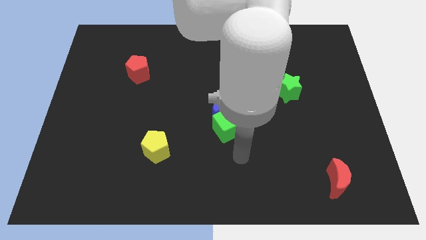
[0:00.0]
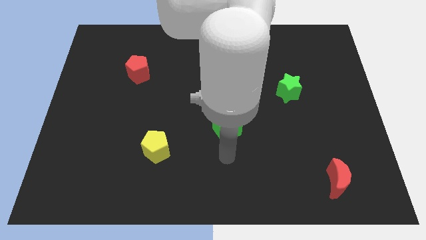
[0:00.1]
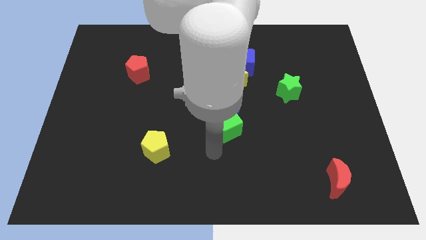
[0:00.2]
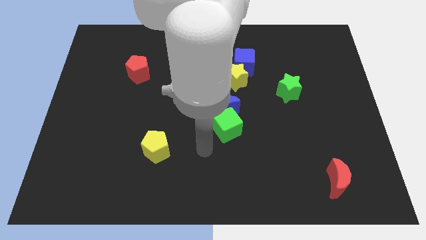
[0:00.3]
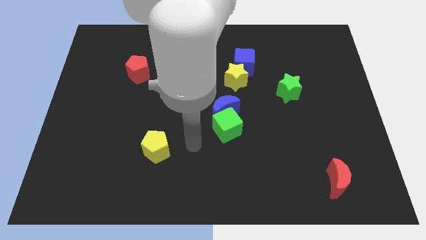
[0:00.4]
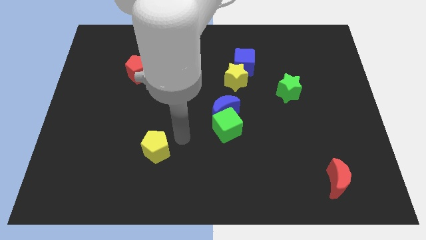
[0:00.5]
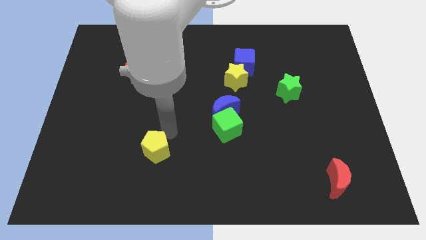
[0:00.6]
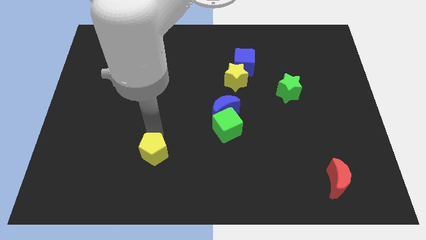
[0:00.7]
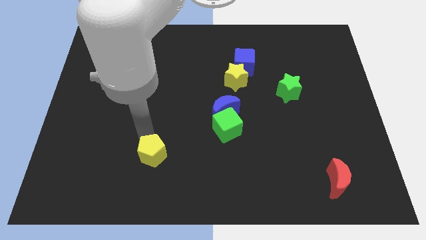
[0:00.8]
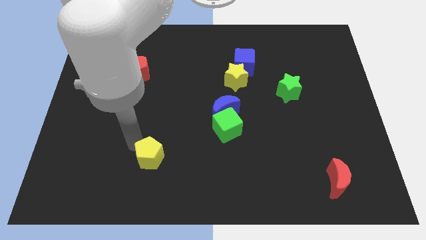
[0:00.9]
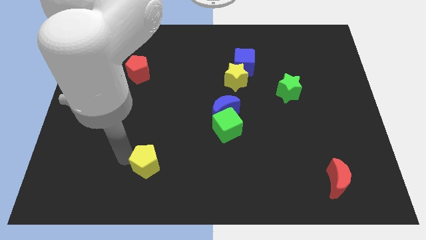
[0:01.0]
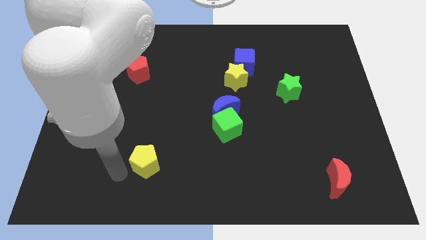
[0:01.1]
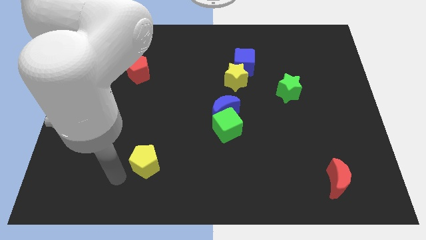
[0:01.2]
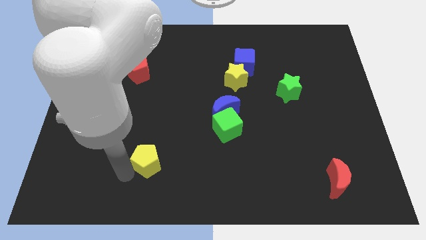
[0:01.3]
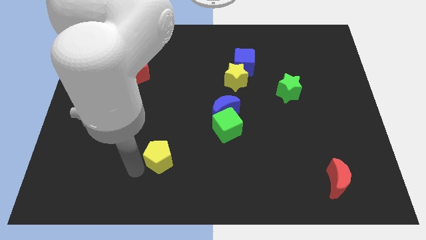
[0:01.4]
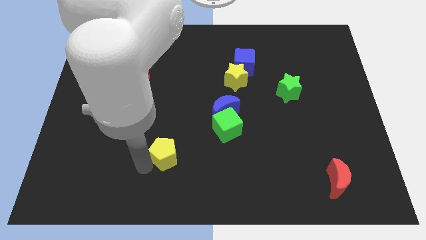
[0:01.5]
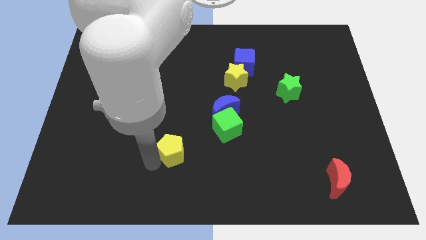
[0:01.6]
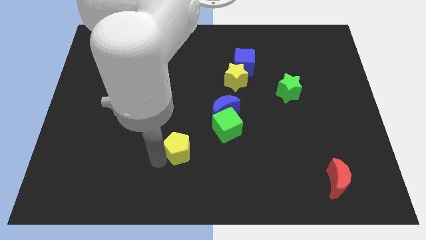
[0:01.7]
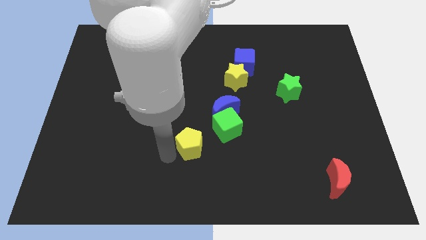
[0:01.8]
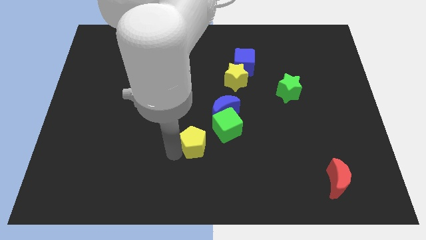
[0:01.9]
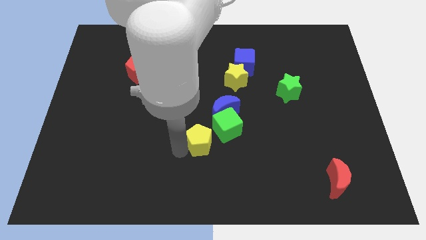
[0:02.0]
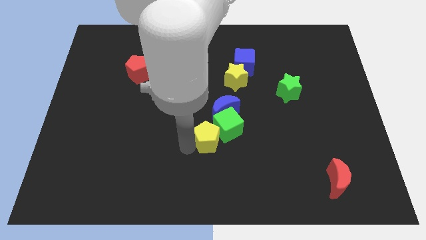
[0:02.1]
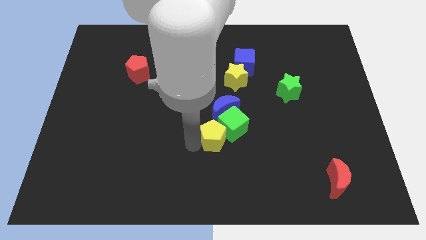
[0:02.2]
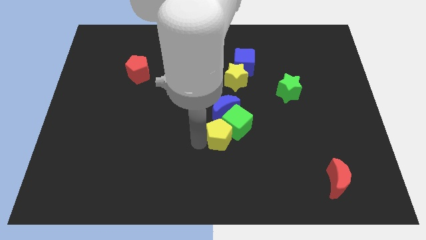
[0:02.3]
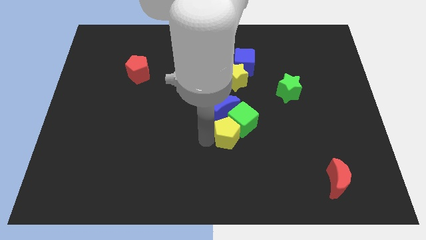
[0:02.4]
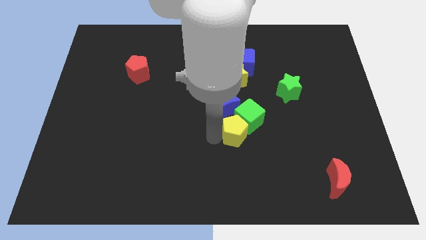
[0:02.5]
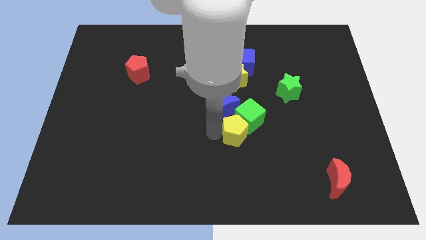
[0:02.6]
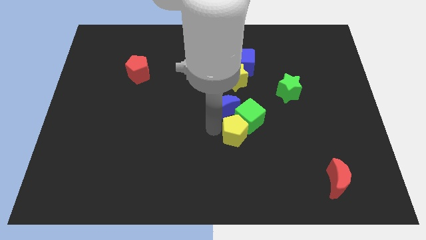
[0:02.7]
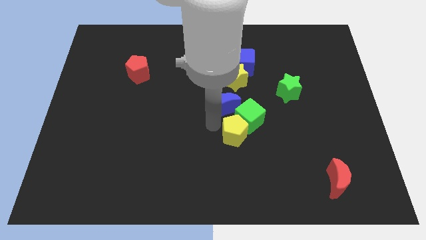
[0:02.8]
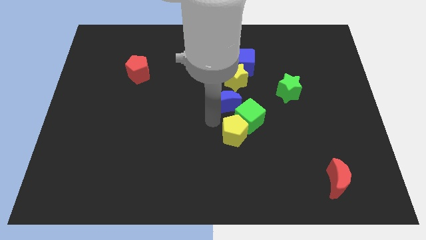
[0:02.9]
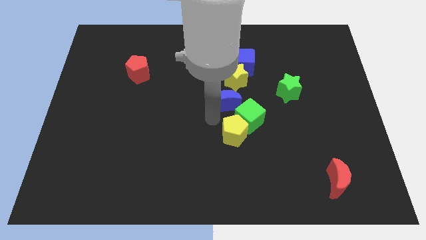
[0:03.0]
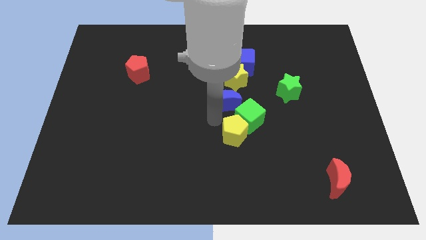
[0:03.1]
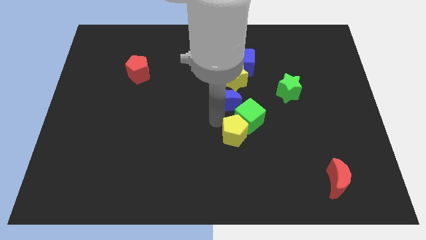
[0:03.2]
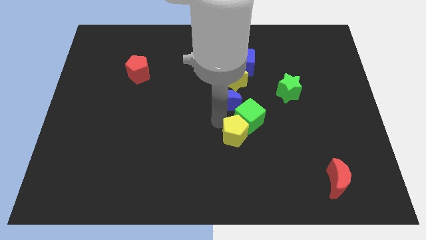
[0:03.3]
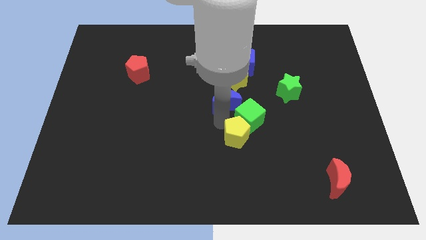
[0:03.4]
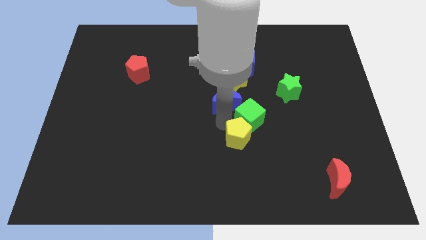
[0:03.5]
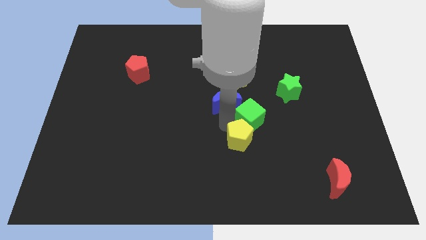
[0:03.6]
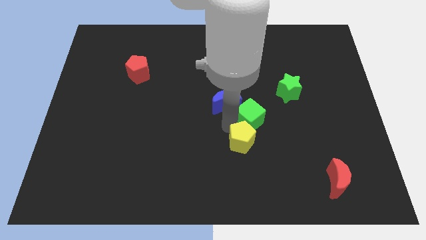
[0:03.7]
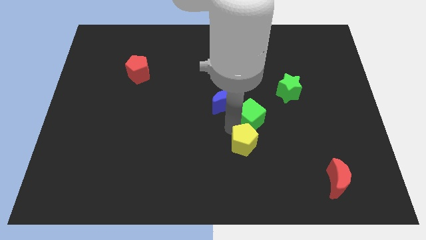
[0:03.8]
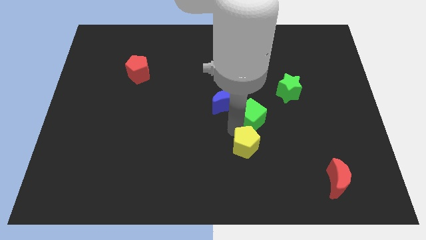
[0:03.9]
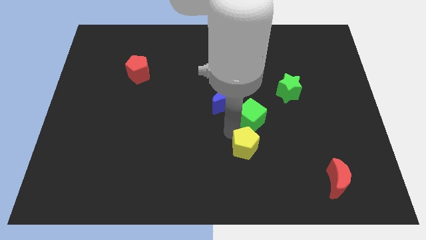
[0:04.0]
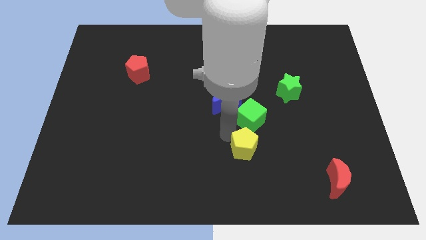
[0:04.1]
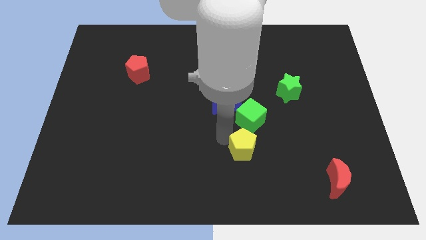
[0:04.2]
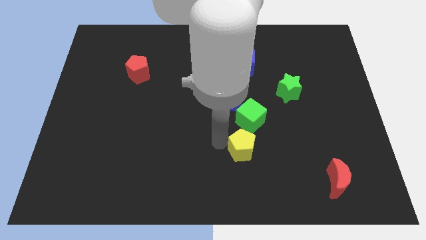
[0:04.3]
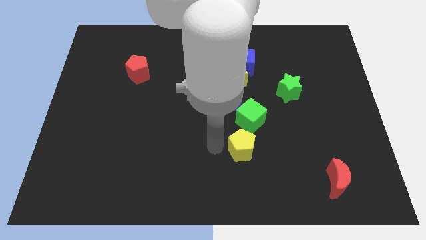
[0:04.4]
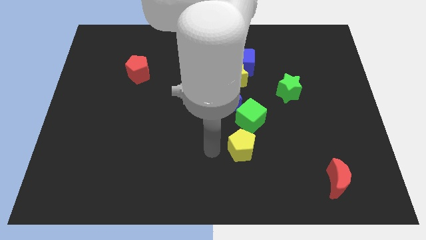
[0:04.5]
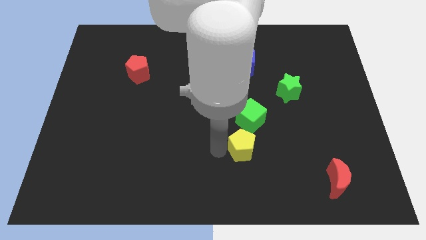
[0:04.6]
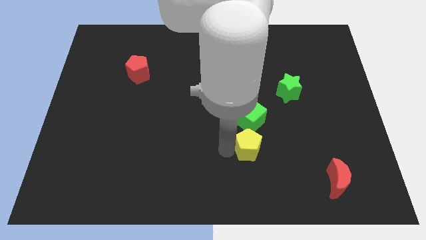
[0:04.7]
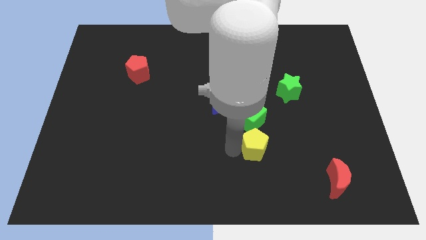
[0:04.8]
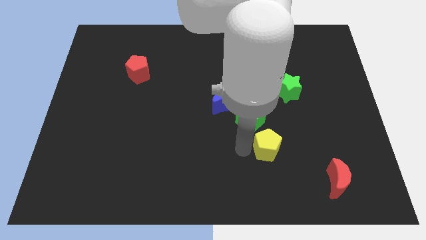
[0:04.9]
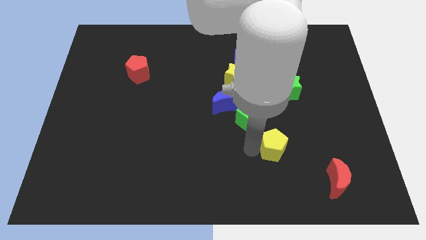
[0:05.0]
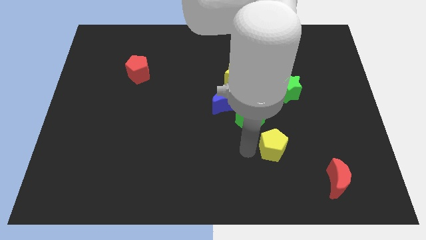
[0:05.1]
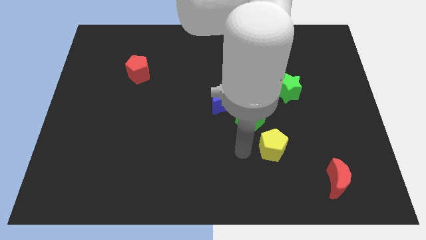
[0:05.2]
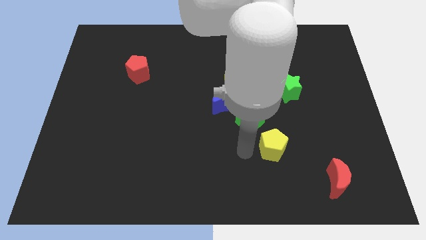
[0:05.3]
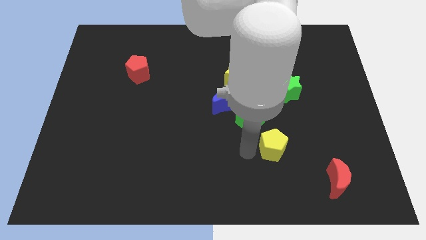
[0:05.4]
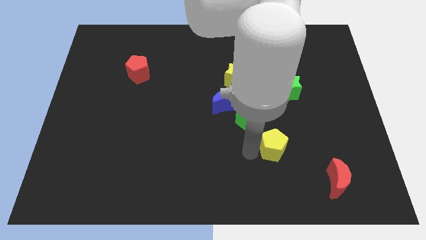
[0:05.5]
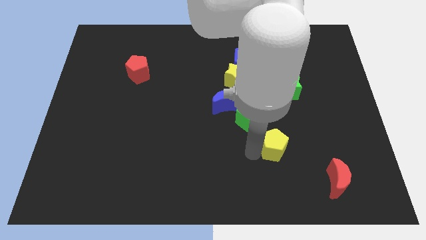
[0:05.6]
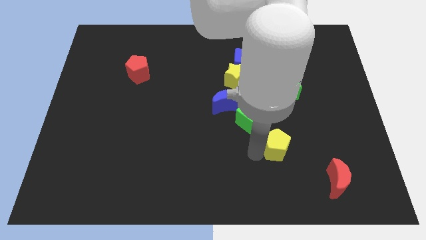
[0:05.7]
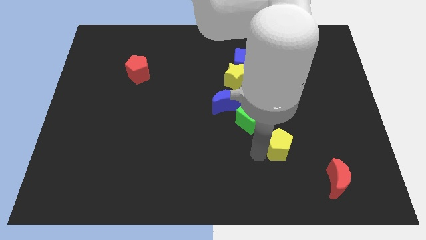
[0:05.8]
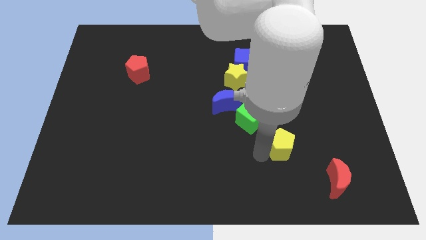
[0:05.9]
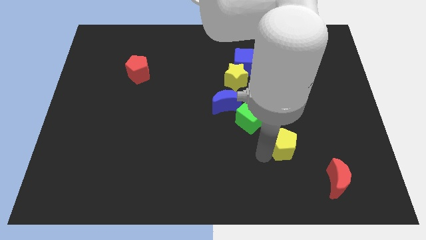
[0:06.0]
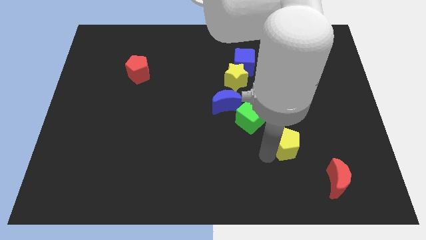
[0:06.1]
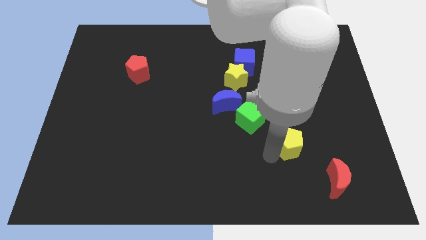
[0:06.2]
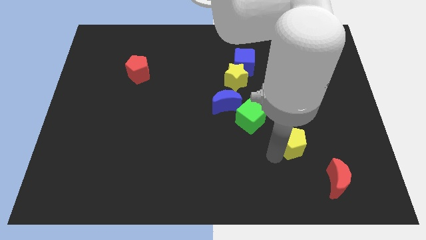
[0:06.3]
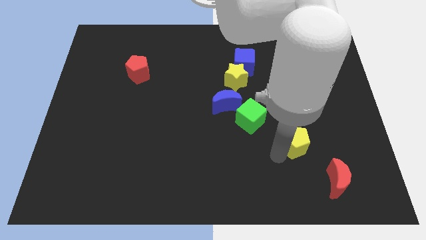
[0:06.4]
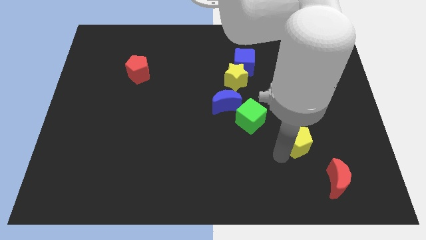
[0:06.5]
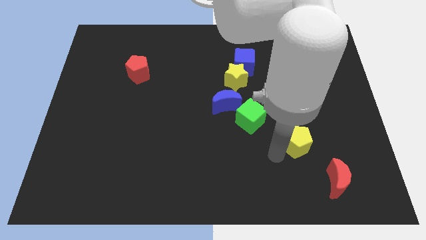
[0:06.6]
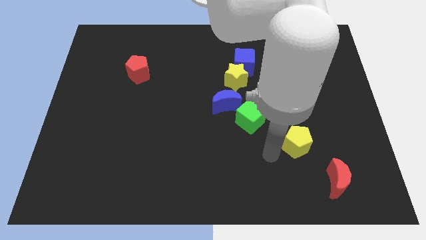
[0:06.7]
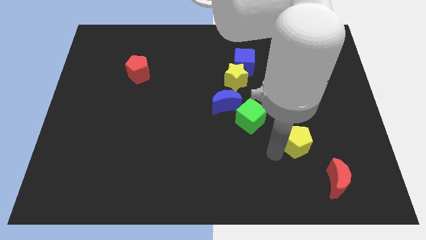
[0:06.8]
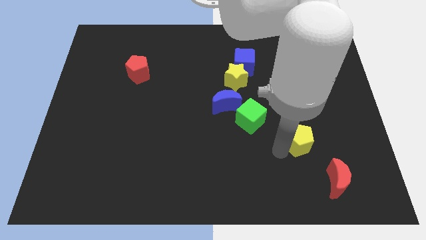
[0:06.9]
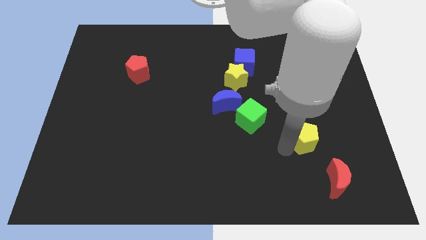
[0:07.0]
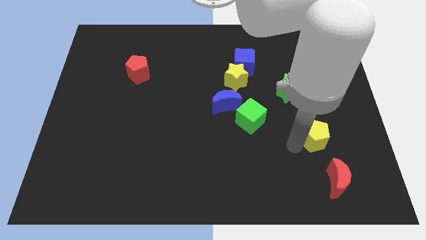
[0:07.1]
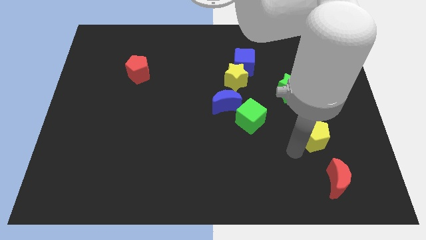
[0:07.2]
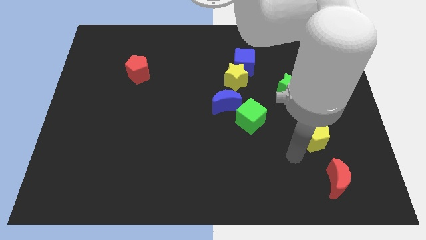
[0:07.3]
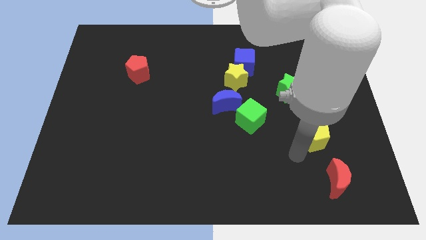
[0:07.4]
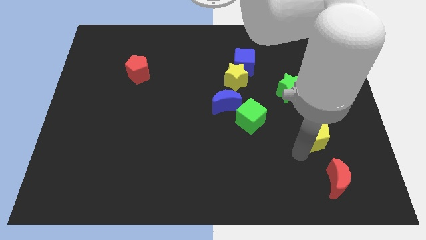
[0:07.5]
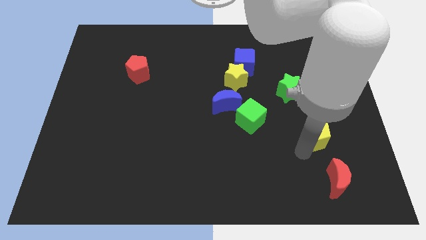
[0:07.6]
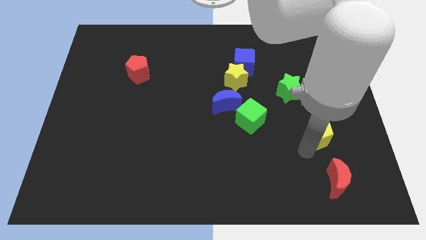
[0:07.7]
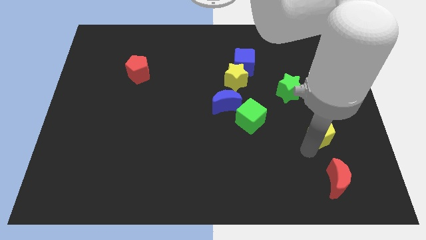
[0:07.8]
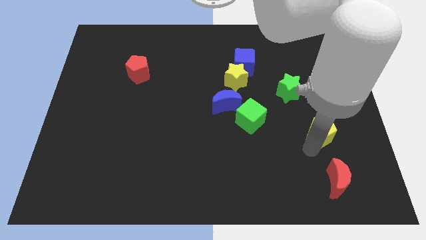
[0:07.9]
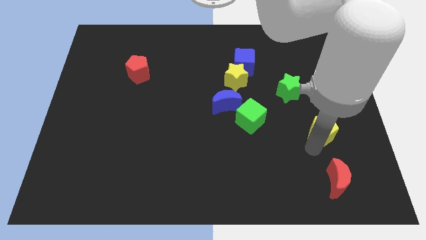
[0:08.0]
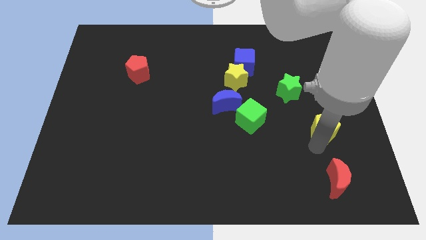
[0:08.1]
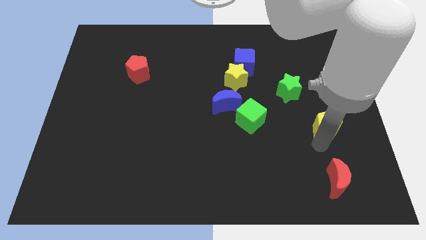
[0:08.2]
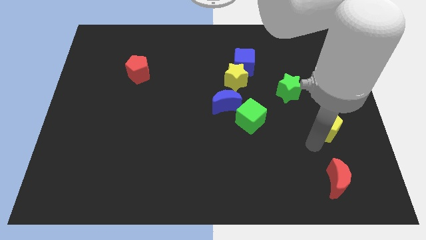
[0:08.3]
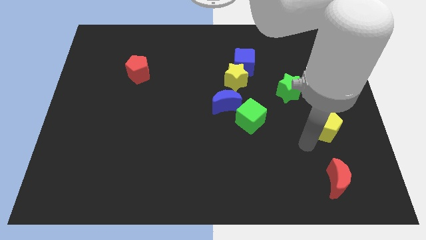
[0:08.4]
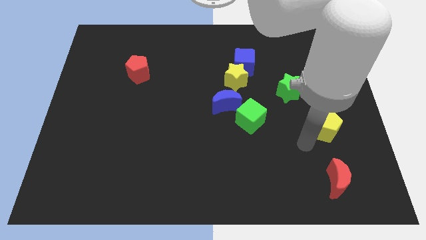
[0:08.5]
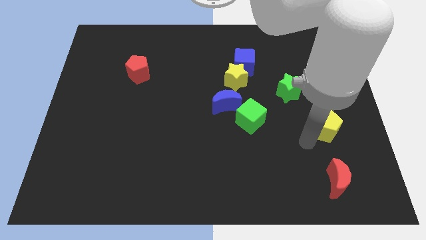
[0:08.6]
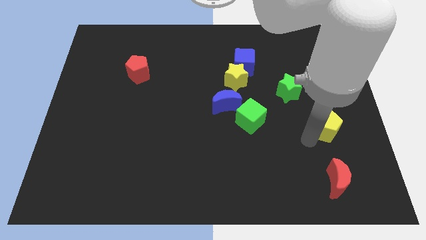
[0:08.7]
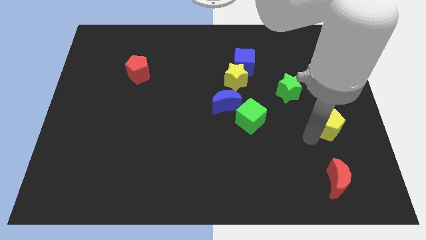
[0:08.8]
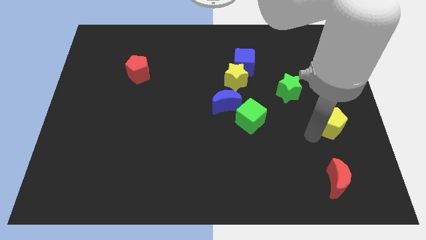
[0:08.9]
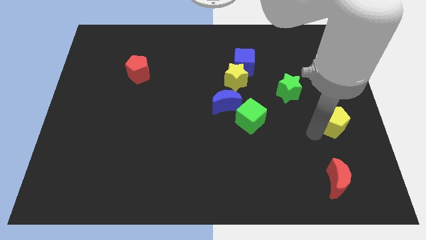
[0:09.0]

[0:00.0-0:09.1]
push the yellow pentagon to the right side
